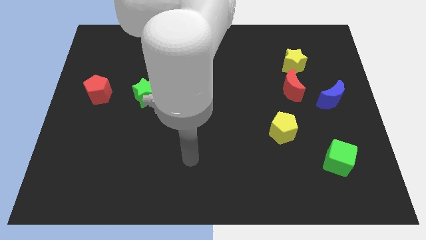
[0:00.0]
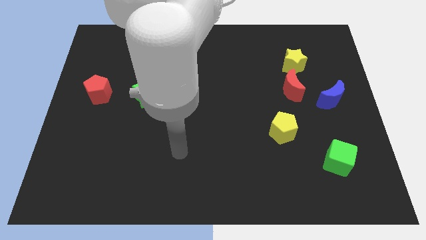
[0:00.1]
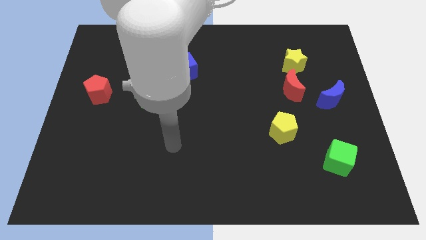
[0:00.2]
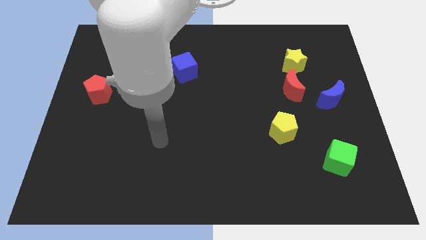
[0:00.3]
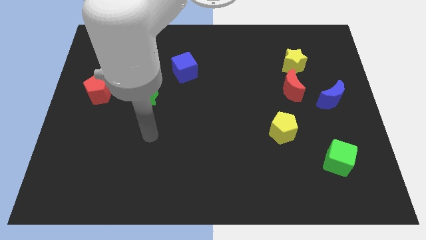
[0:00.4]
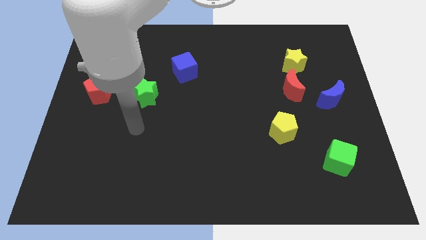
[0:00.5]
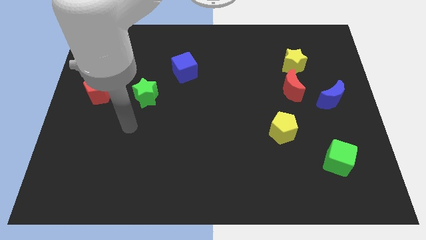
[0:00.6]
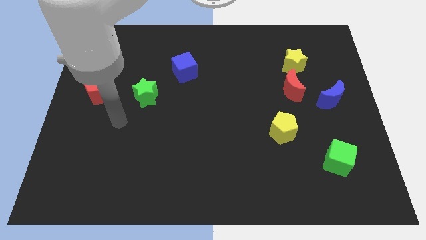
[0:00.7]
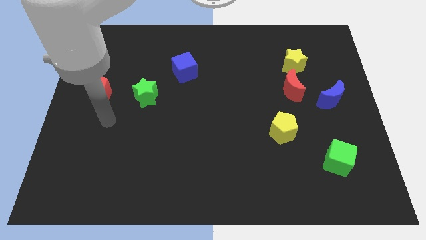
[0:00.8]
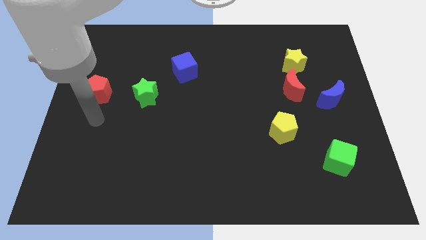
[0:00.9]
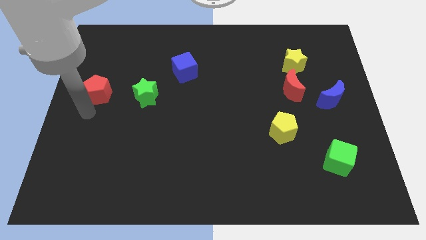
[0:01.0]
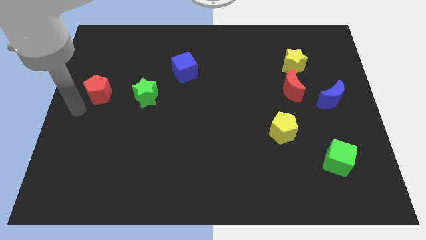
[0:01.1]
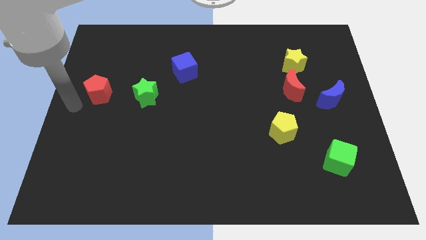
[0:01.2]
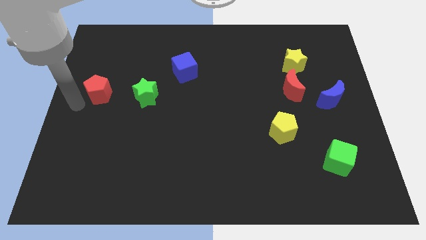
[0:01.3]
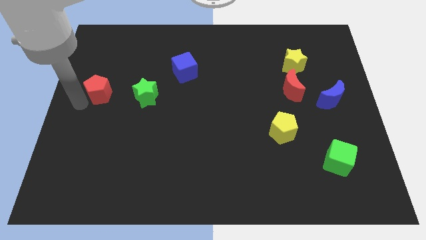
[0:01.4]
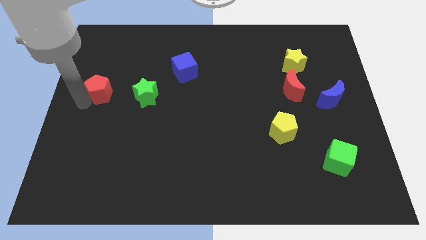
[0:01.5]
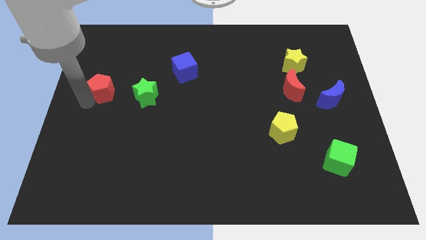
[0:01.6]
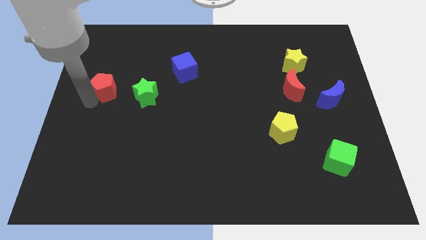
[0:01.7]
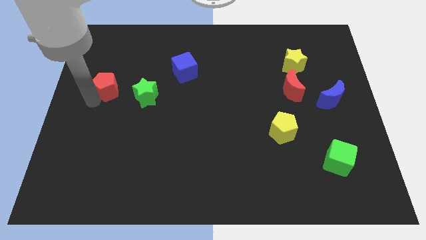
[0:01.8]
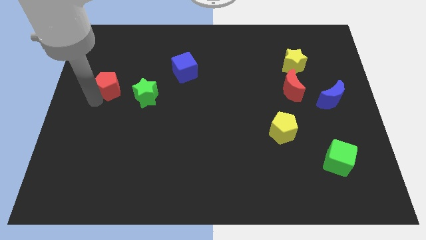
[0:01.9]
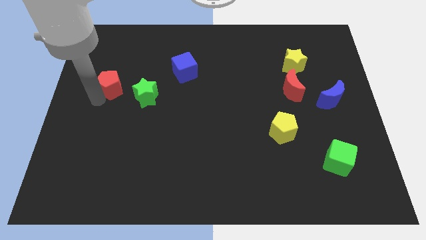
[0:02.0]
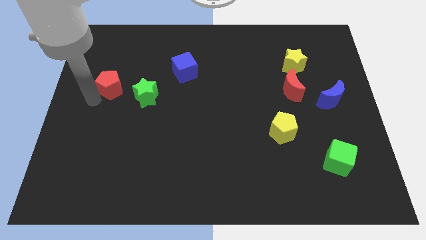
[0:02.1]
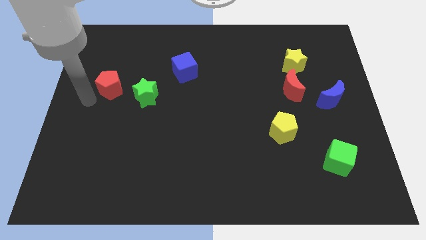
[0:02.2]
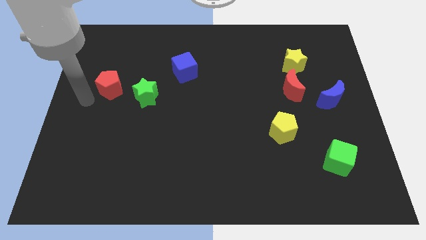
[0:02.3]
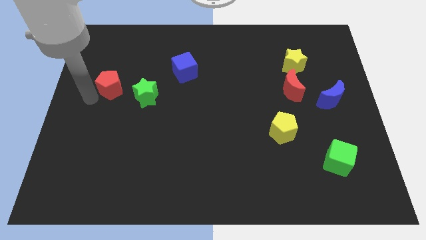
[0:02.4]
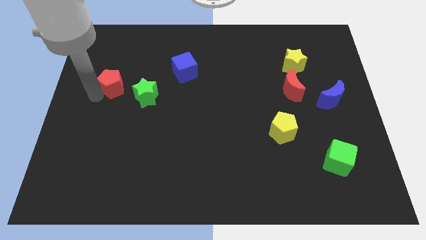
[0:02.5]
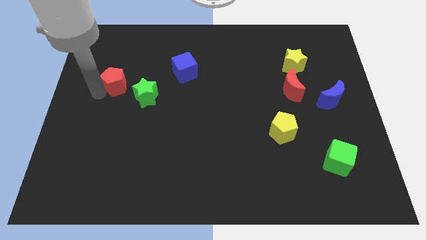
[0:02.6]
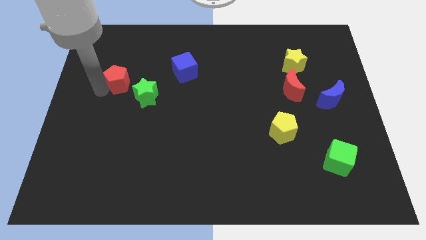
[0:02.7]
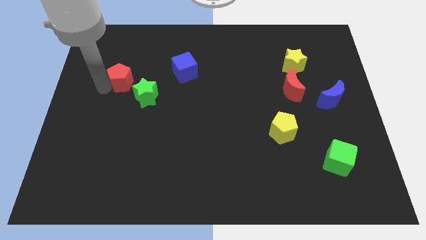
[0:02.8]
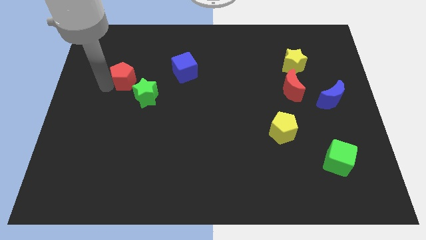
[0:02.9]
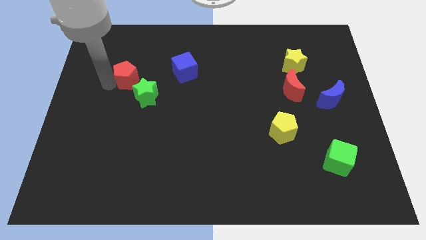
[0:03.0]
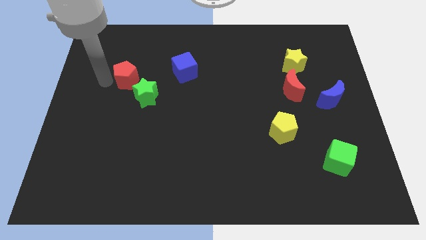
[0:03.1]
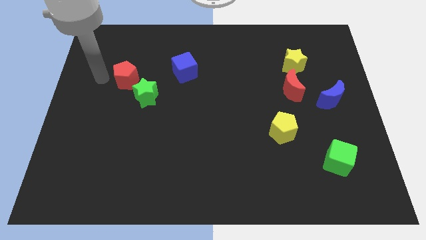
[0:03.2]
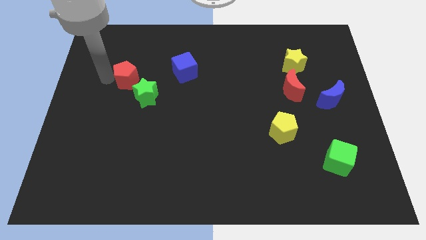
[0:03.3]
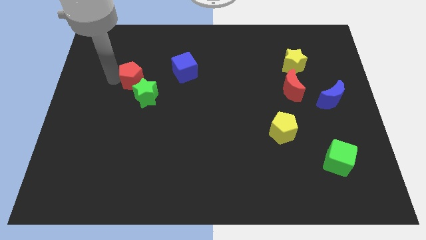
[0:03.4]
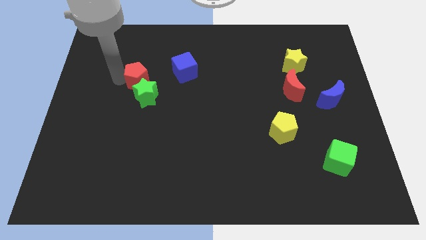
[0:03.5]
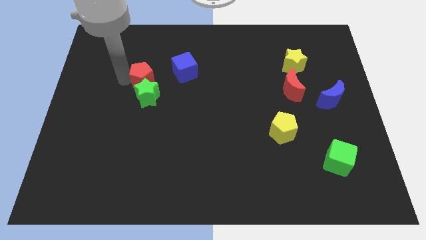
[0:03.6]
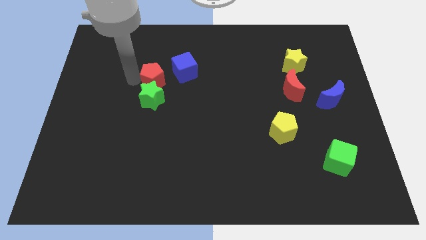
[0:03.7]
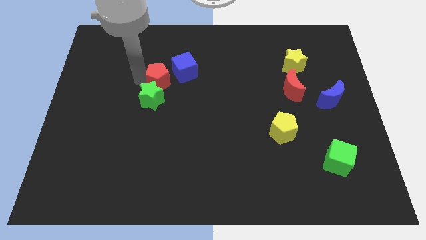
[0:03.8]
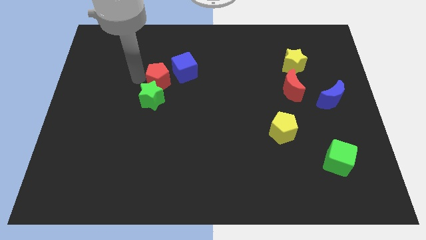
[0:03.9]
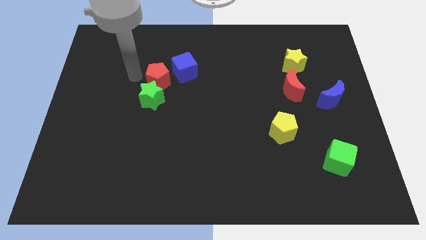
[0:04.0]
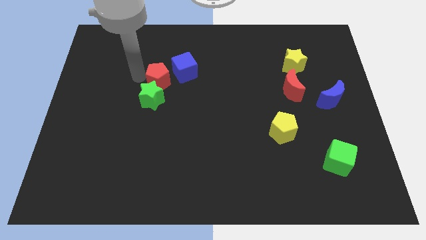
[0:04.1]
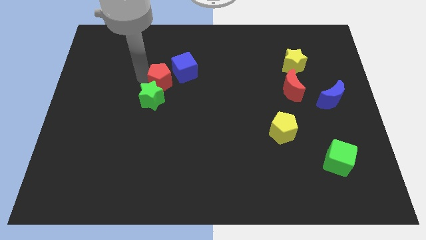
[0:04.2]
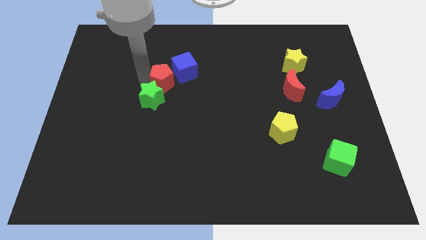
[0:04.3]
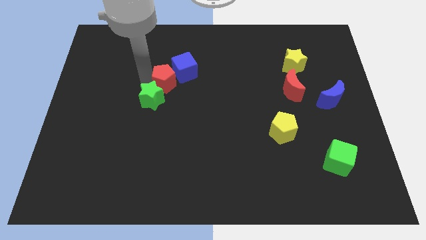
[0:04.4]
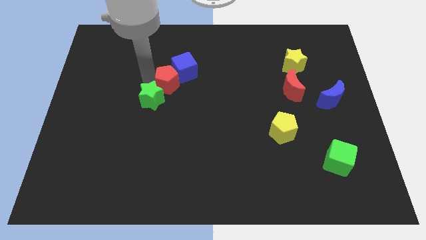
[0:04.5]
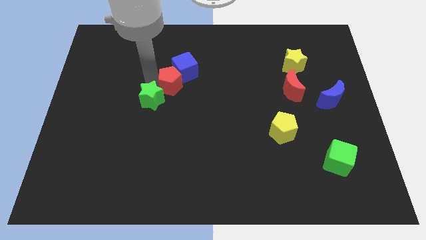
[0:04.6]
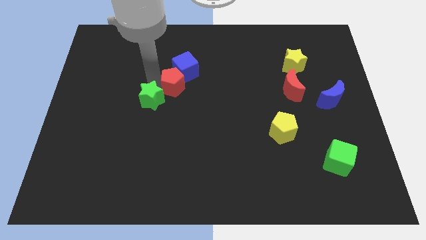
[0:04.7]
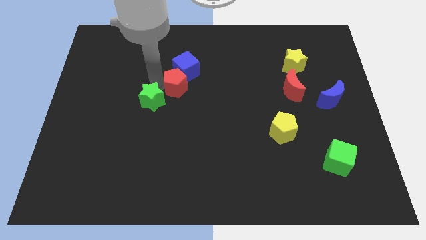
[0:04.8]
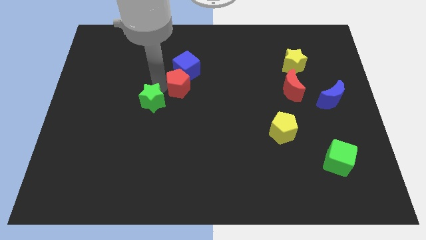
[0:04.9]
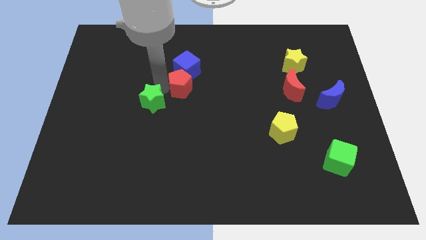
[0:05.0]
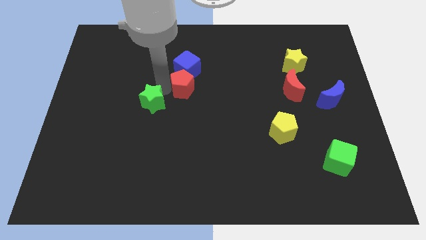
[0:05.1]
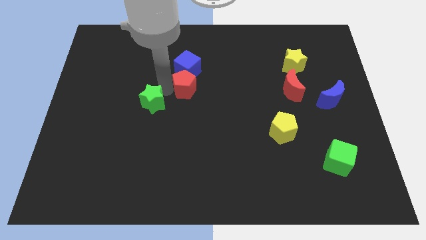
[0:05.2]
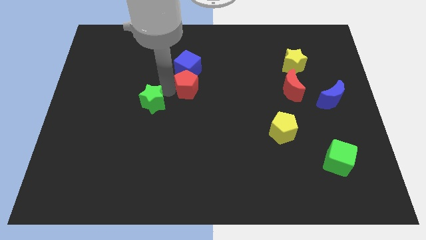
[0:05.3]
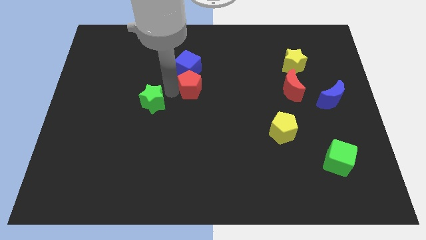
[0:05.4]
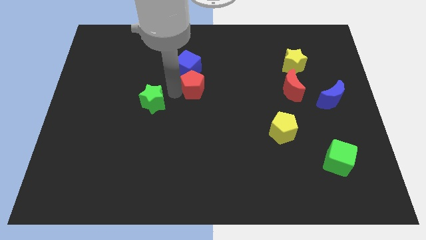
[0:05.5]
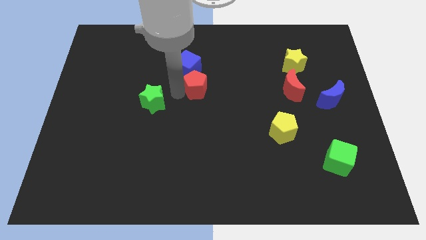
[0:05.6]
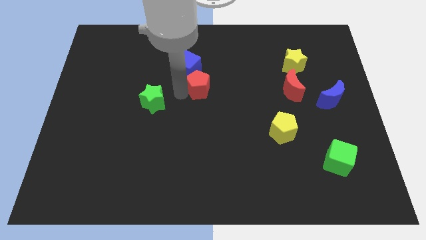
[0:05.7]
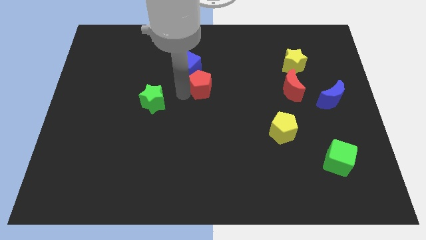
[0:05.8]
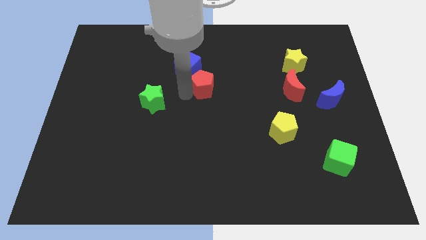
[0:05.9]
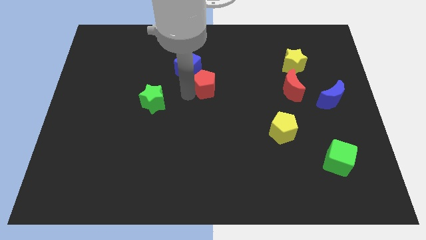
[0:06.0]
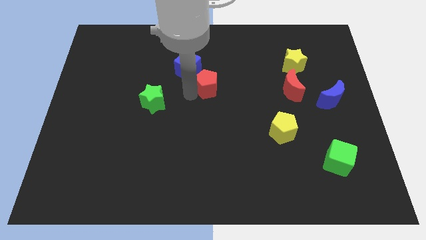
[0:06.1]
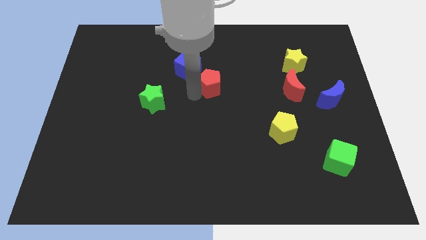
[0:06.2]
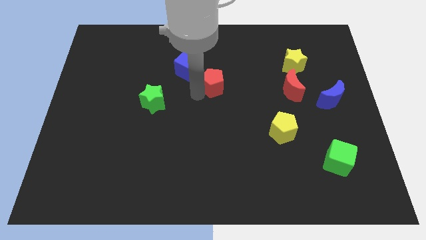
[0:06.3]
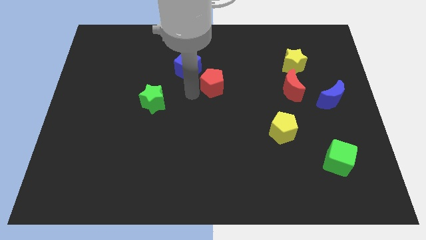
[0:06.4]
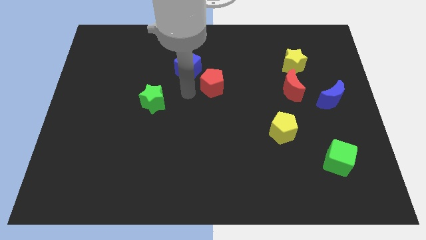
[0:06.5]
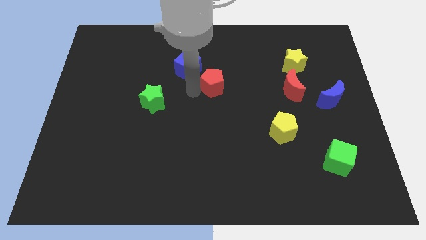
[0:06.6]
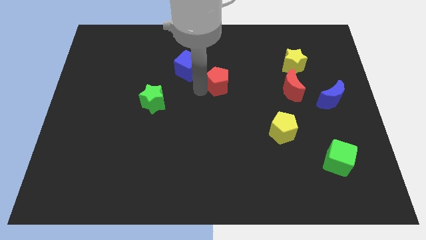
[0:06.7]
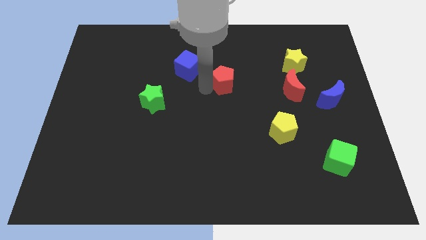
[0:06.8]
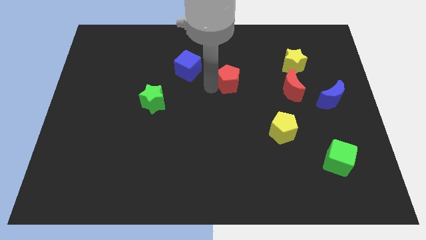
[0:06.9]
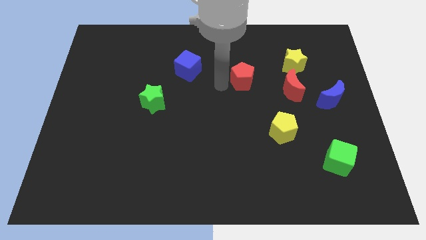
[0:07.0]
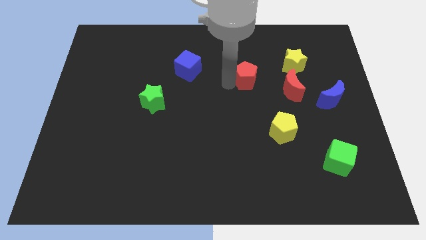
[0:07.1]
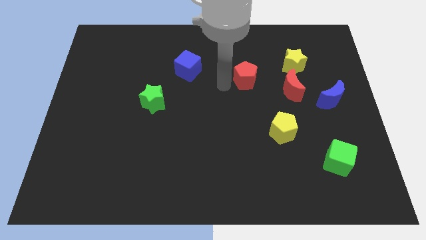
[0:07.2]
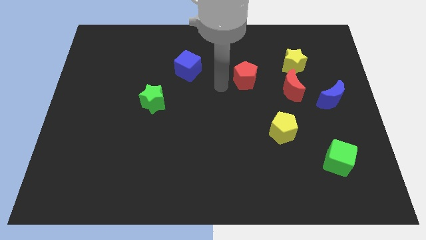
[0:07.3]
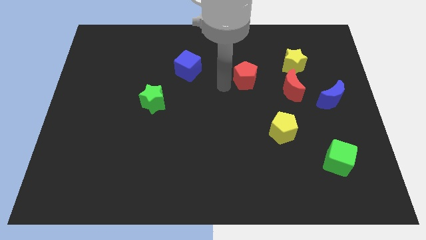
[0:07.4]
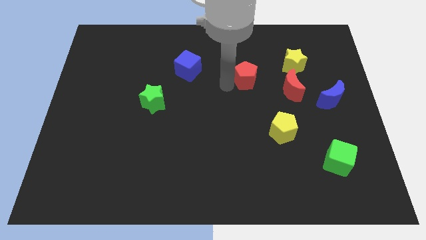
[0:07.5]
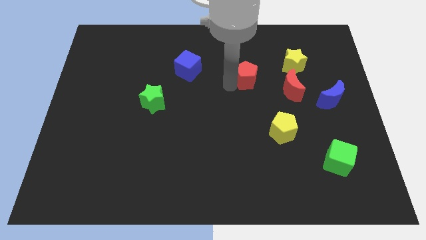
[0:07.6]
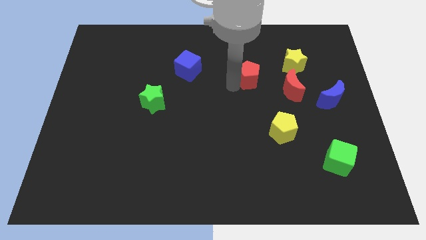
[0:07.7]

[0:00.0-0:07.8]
push the red pentagon to the top left side of the red moon
